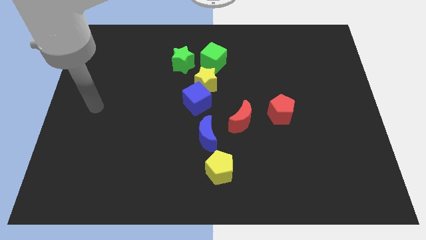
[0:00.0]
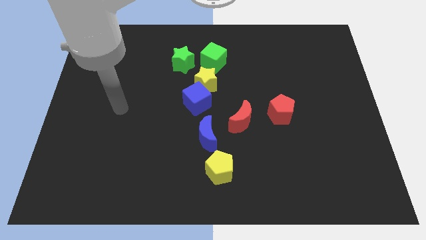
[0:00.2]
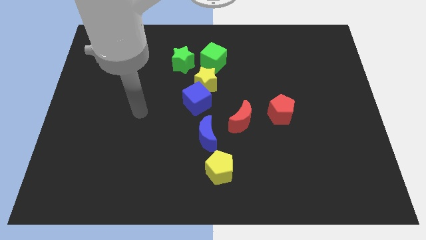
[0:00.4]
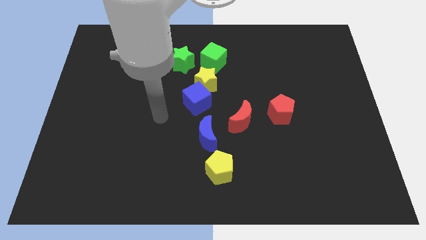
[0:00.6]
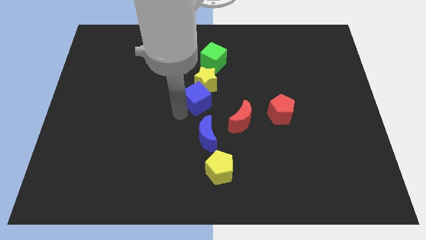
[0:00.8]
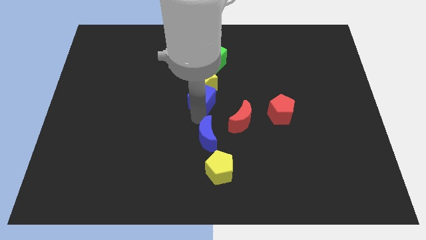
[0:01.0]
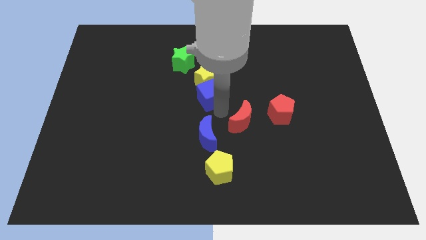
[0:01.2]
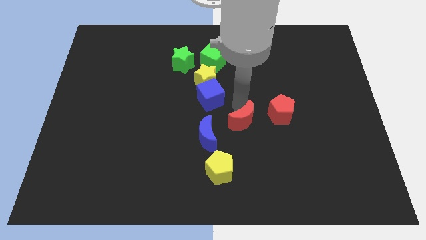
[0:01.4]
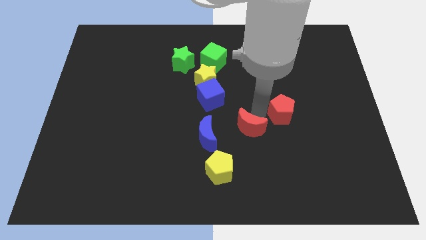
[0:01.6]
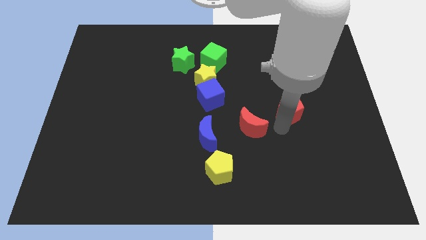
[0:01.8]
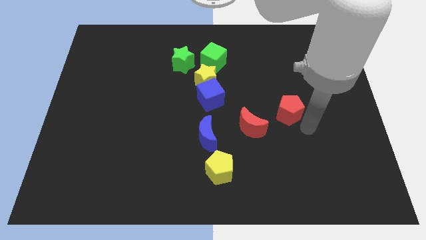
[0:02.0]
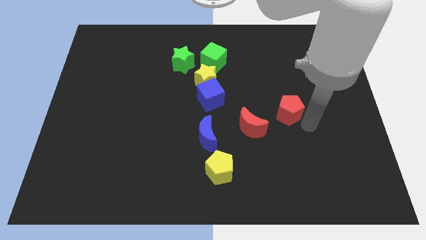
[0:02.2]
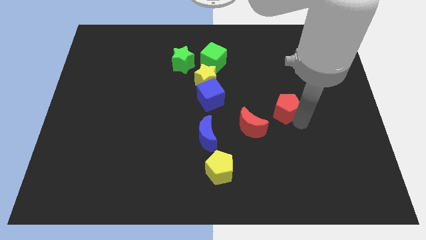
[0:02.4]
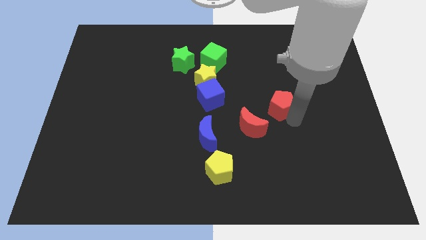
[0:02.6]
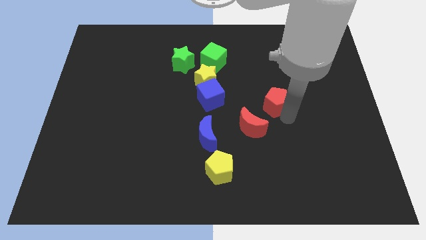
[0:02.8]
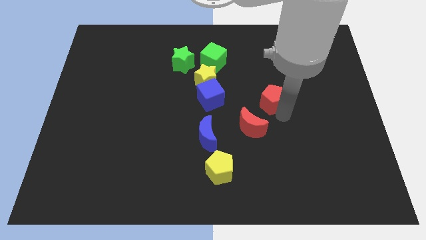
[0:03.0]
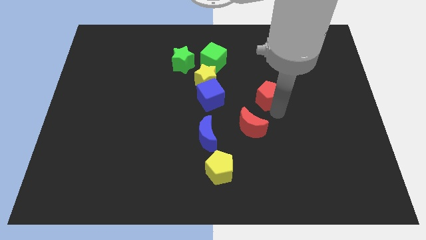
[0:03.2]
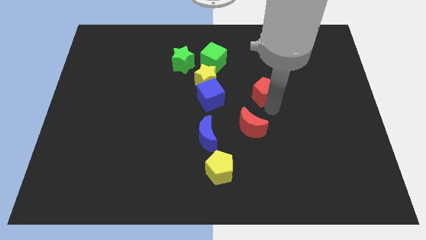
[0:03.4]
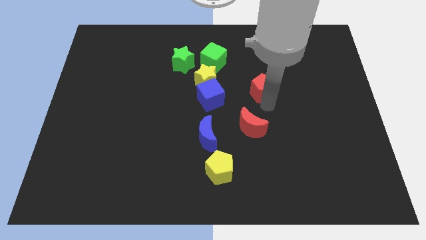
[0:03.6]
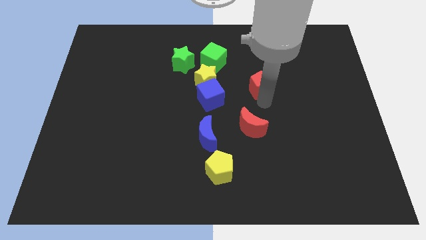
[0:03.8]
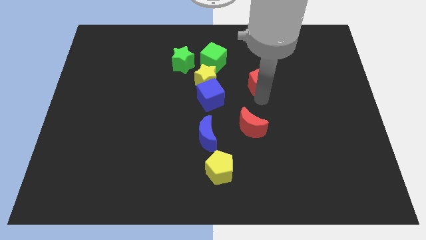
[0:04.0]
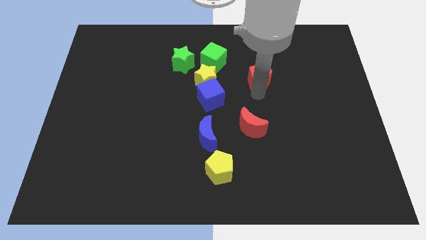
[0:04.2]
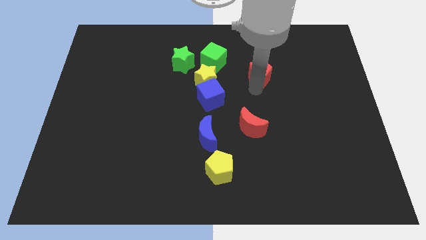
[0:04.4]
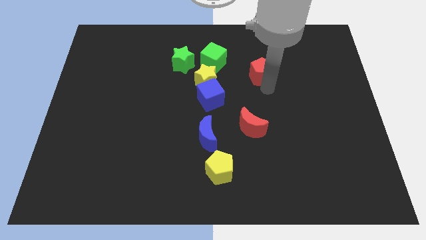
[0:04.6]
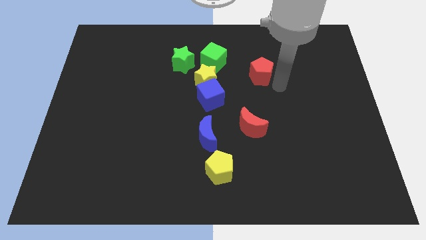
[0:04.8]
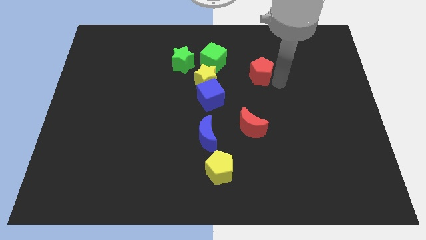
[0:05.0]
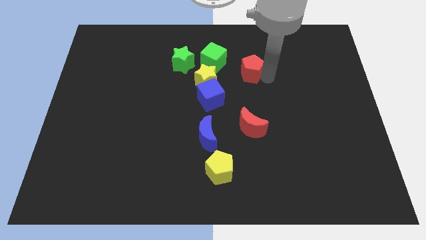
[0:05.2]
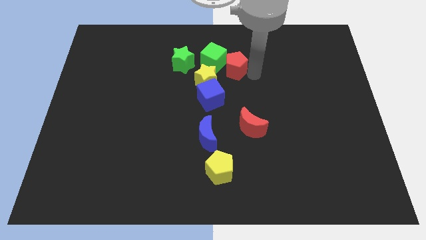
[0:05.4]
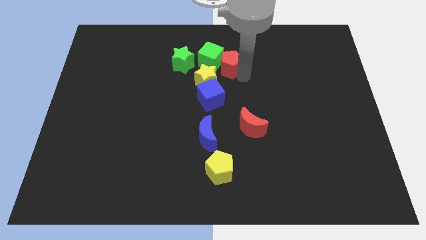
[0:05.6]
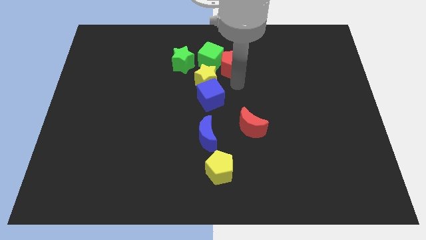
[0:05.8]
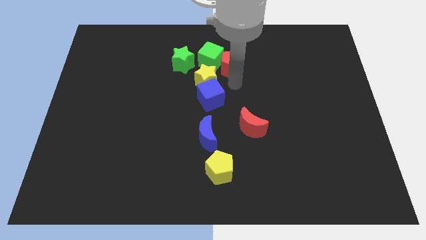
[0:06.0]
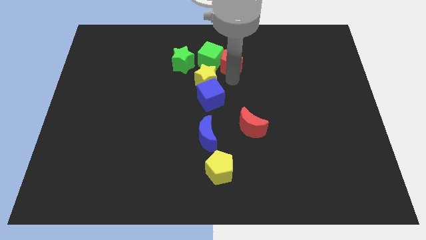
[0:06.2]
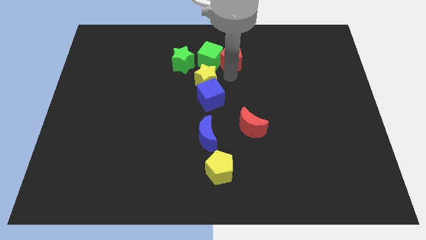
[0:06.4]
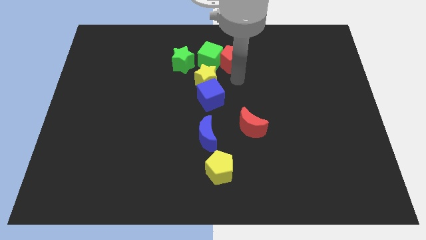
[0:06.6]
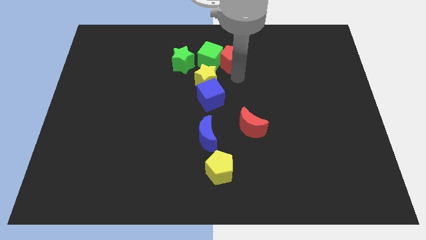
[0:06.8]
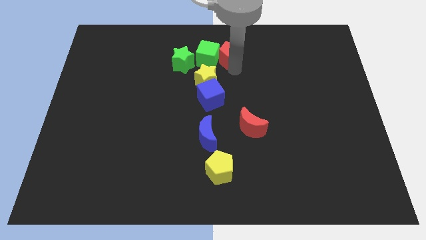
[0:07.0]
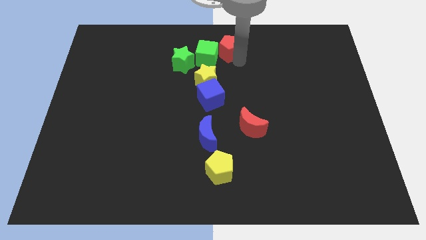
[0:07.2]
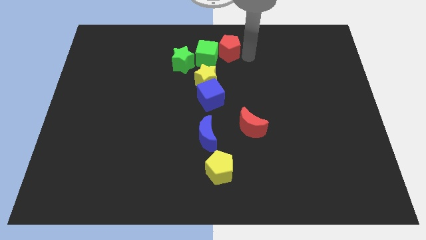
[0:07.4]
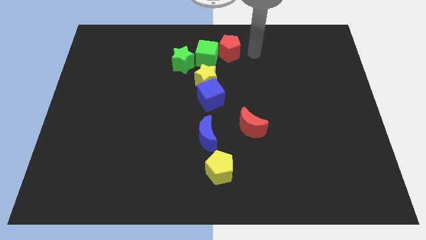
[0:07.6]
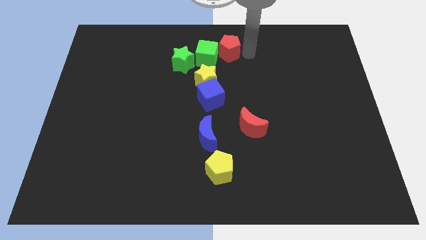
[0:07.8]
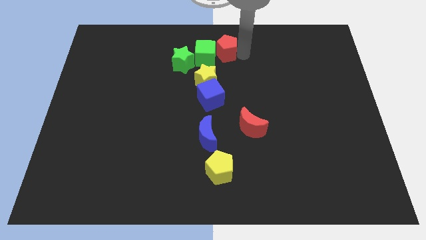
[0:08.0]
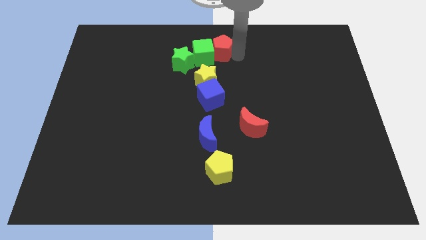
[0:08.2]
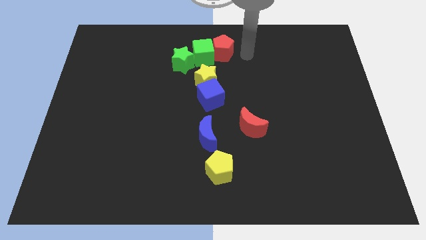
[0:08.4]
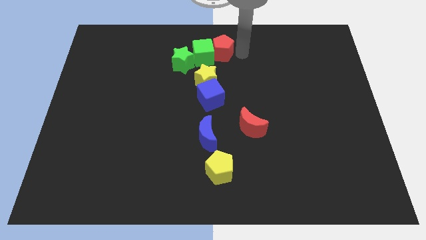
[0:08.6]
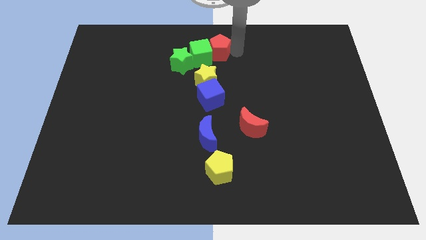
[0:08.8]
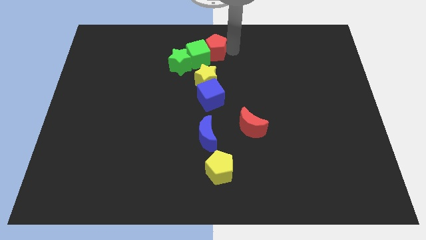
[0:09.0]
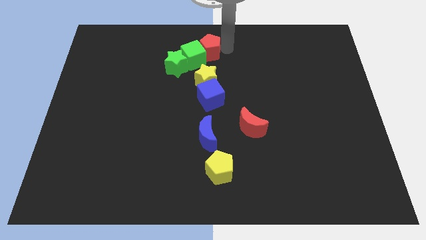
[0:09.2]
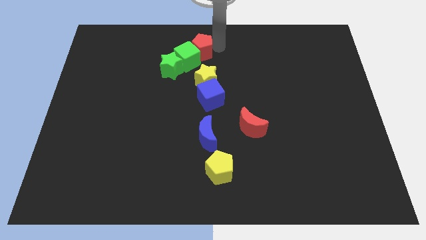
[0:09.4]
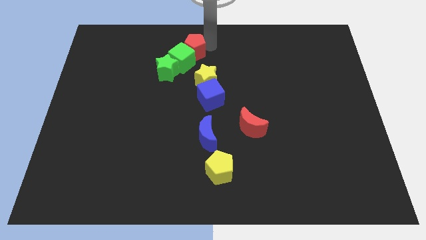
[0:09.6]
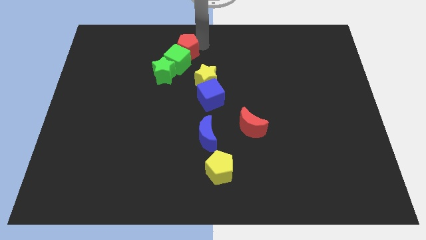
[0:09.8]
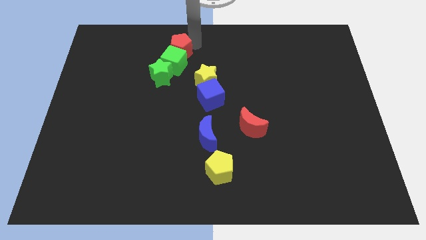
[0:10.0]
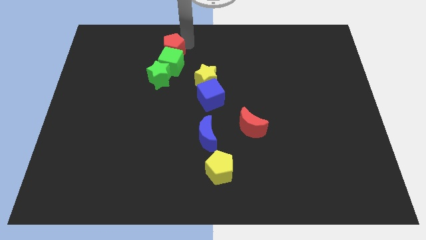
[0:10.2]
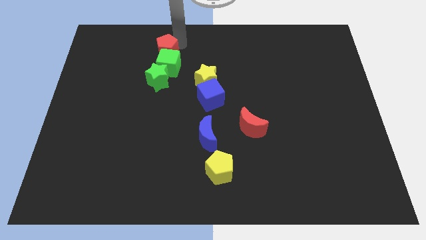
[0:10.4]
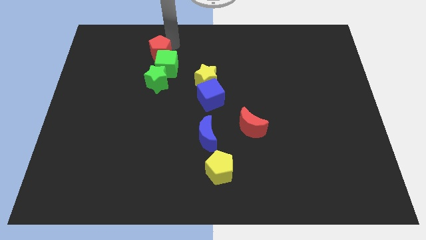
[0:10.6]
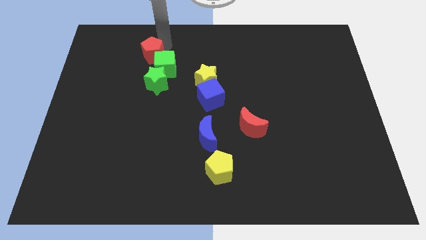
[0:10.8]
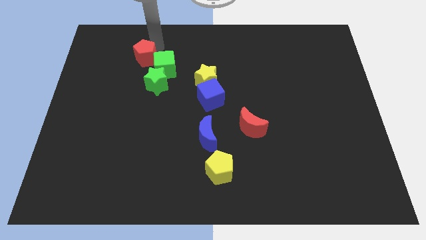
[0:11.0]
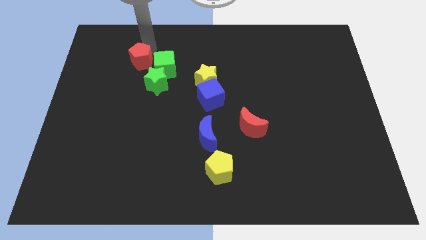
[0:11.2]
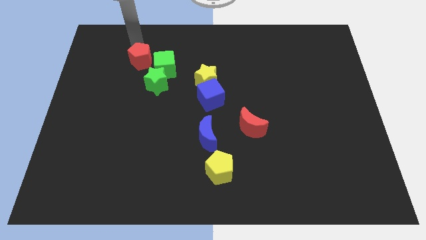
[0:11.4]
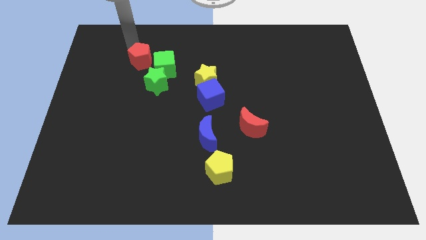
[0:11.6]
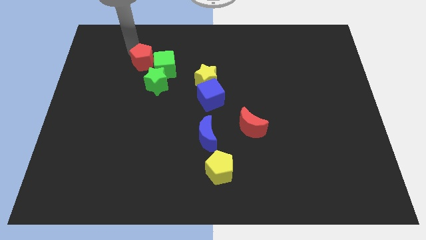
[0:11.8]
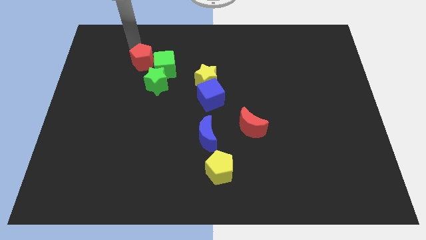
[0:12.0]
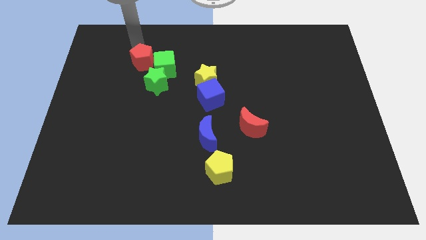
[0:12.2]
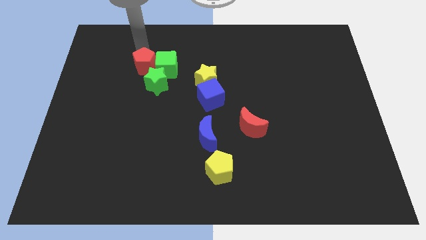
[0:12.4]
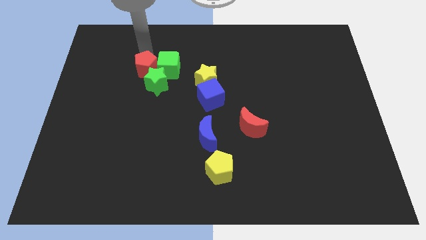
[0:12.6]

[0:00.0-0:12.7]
put the red pentagon towards the green star

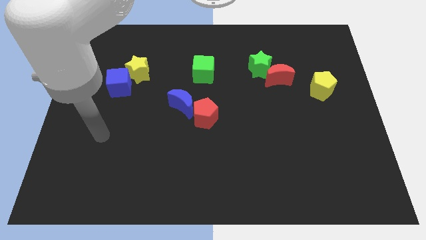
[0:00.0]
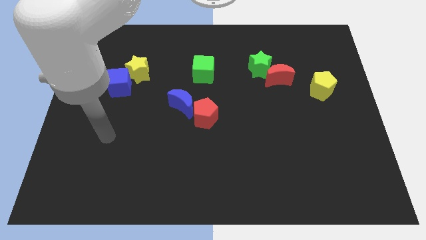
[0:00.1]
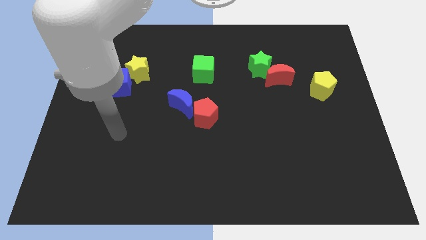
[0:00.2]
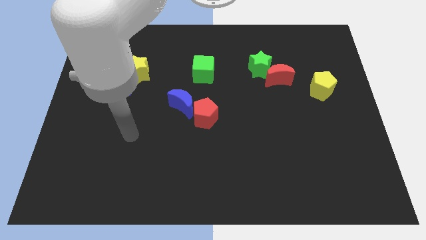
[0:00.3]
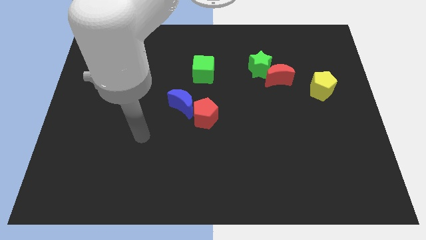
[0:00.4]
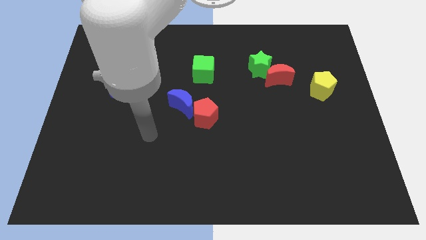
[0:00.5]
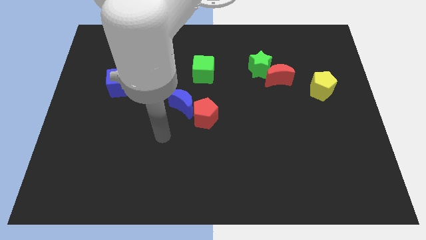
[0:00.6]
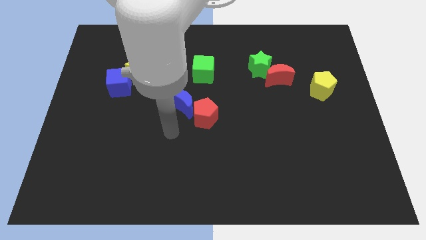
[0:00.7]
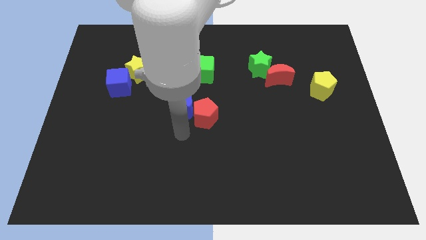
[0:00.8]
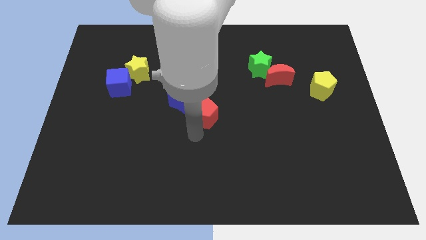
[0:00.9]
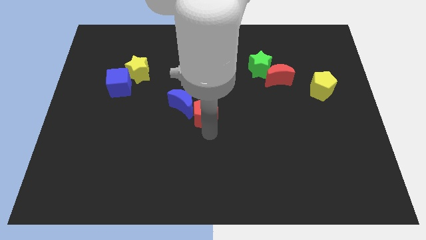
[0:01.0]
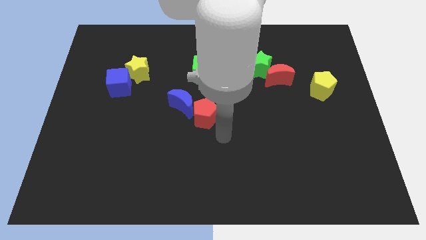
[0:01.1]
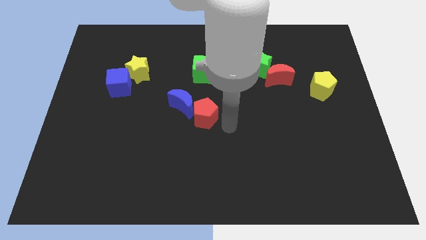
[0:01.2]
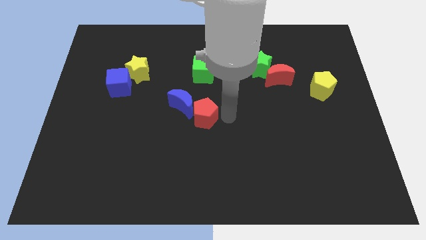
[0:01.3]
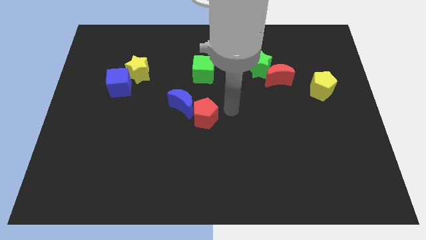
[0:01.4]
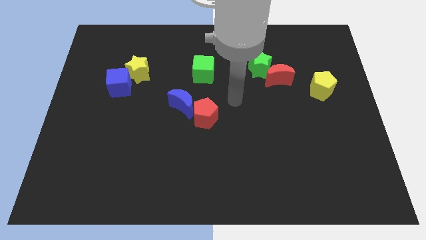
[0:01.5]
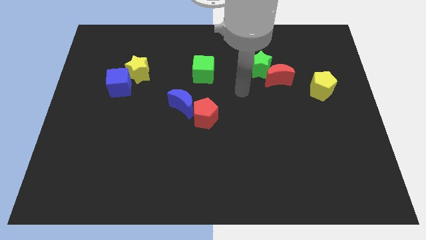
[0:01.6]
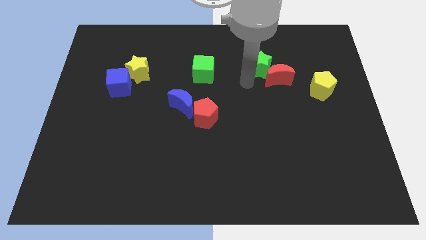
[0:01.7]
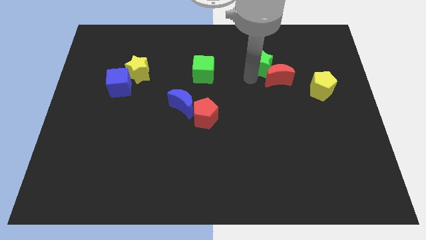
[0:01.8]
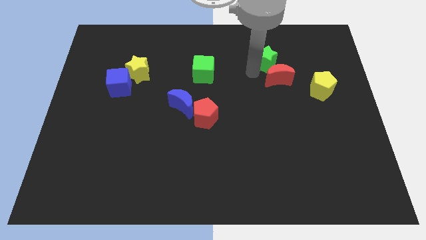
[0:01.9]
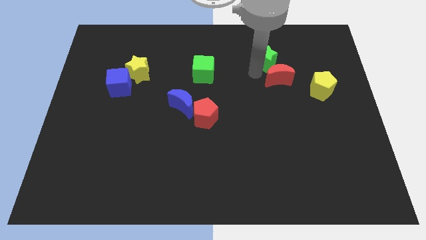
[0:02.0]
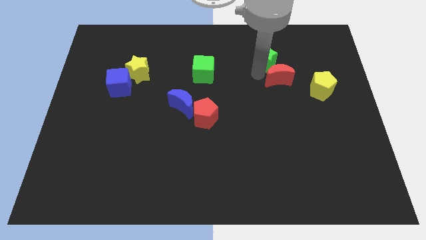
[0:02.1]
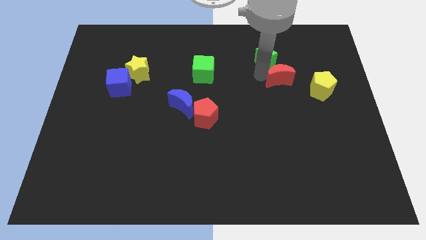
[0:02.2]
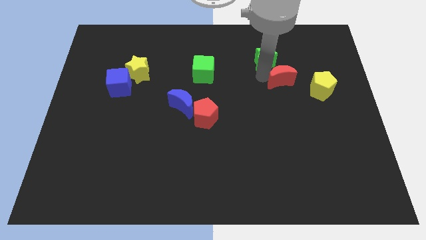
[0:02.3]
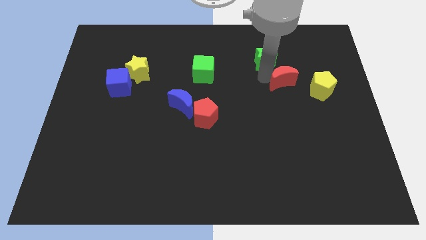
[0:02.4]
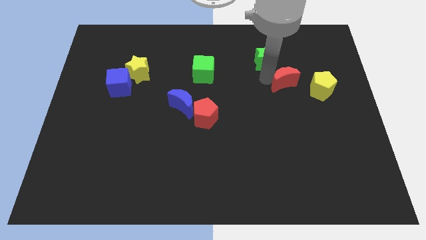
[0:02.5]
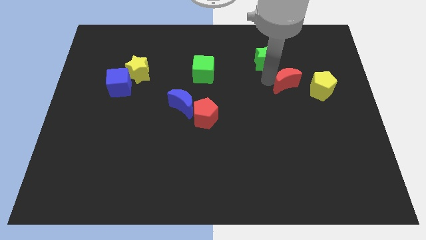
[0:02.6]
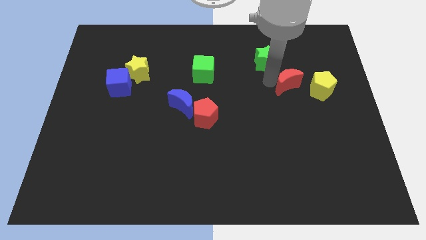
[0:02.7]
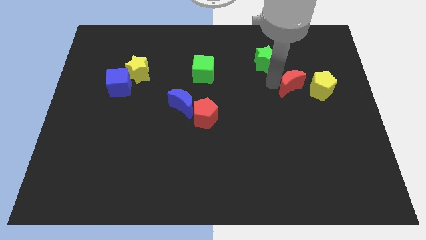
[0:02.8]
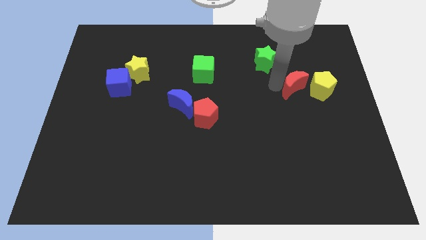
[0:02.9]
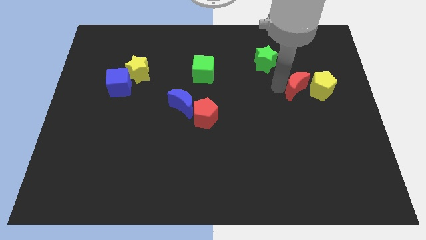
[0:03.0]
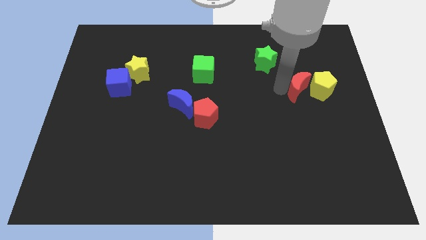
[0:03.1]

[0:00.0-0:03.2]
put the red moon next to the yellow pentagon
